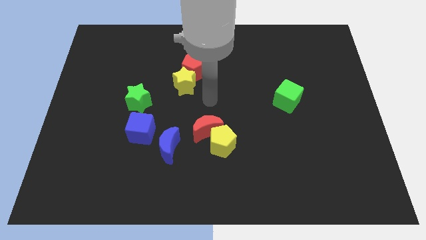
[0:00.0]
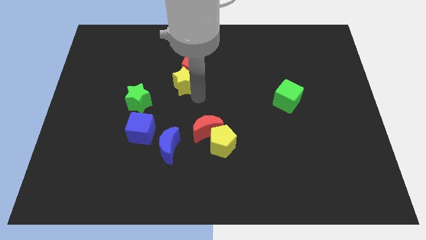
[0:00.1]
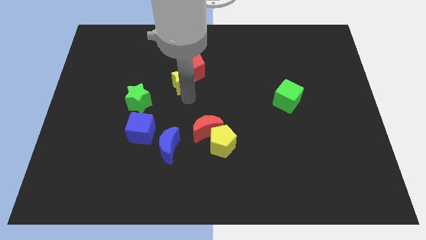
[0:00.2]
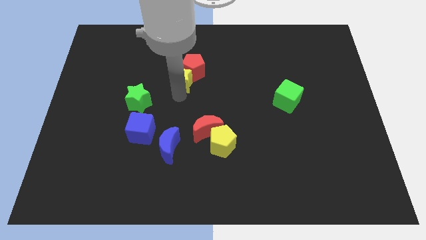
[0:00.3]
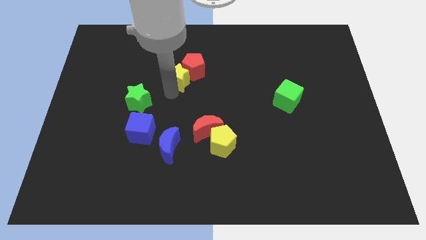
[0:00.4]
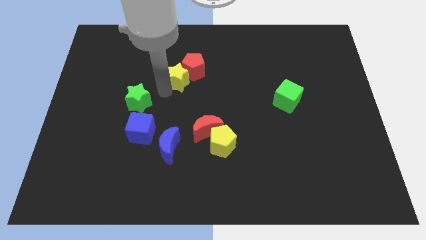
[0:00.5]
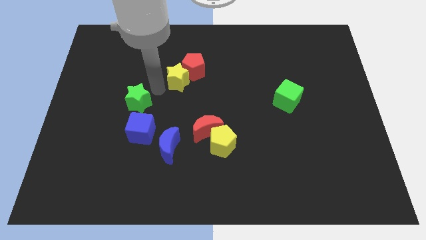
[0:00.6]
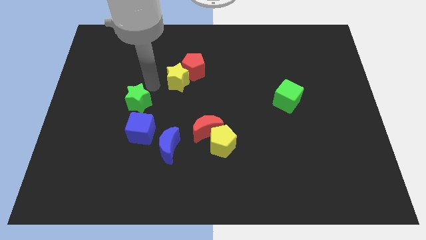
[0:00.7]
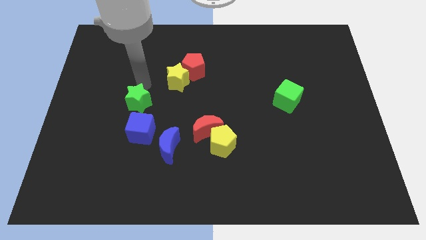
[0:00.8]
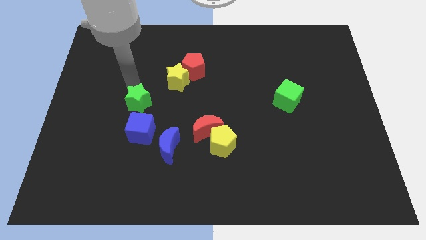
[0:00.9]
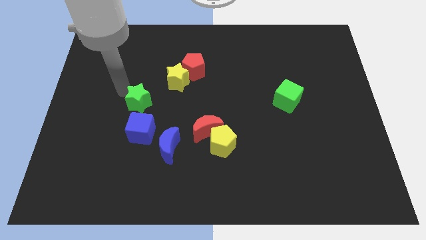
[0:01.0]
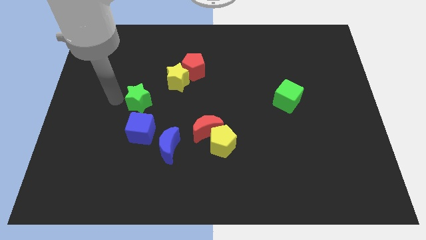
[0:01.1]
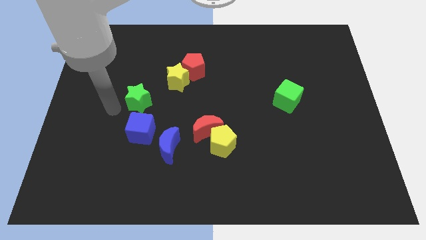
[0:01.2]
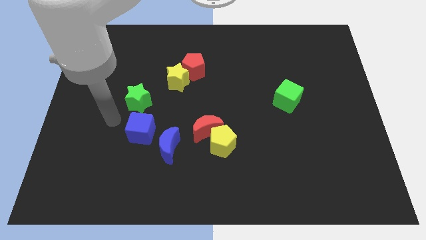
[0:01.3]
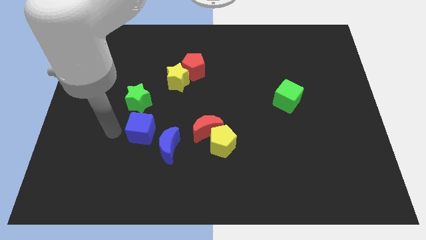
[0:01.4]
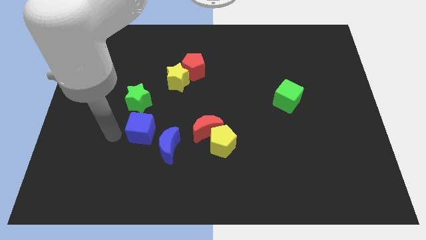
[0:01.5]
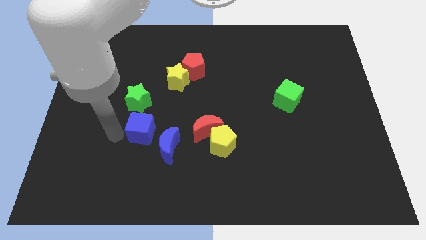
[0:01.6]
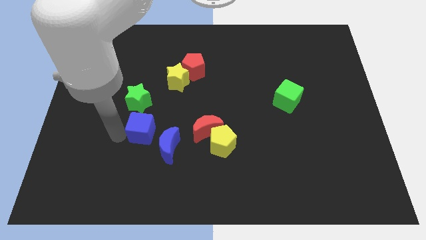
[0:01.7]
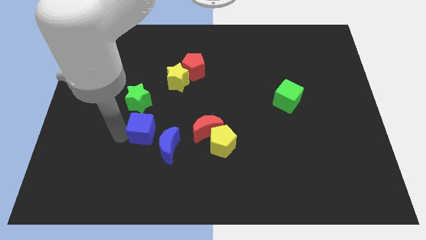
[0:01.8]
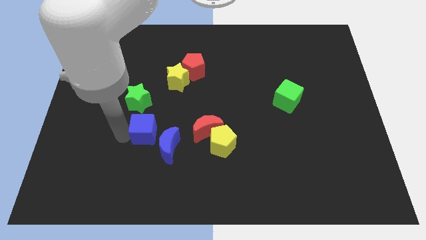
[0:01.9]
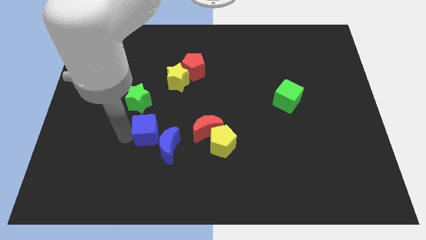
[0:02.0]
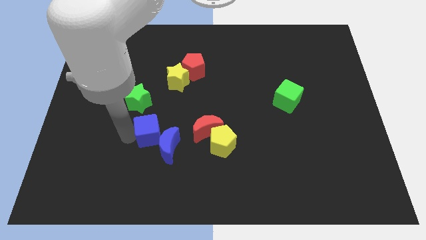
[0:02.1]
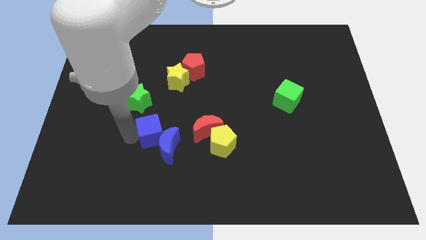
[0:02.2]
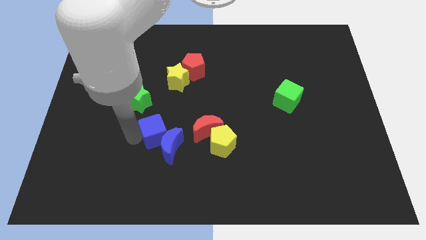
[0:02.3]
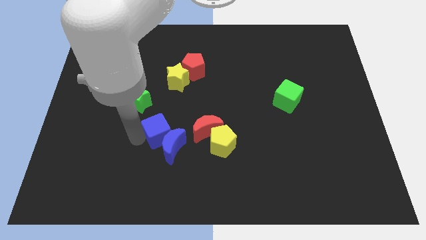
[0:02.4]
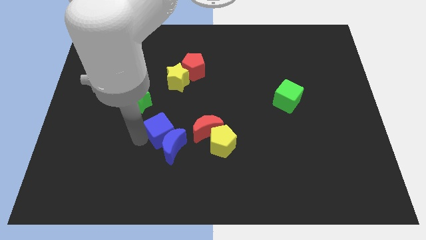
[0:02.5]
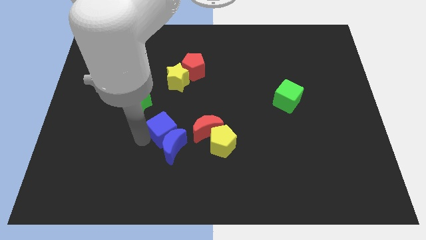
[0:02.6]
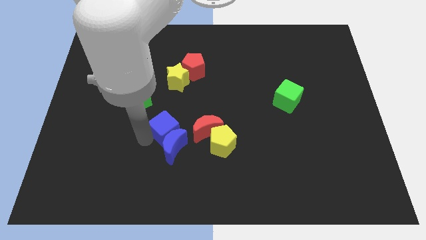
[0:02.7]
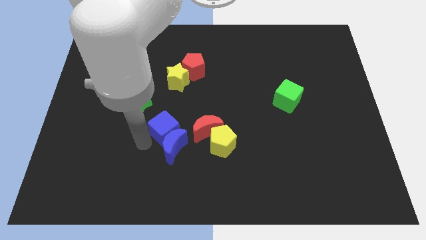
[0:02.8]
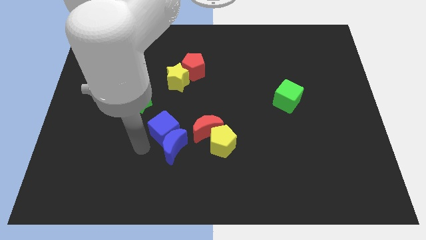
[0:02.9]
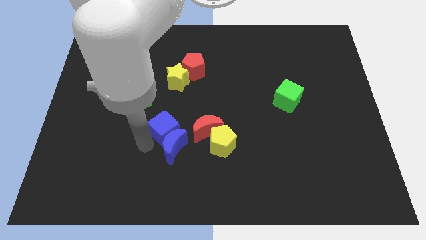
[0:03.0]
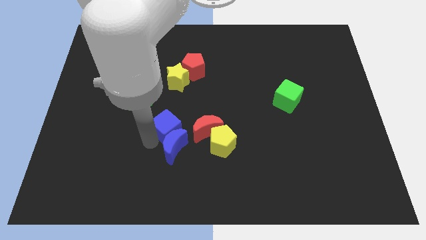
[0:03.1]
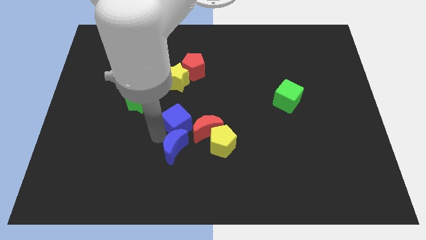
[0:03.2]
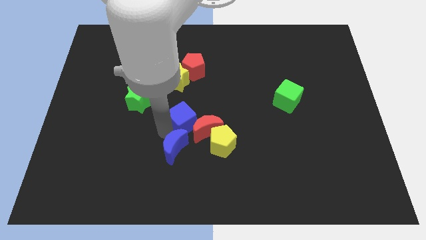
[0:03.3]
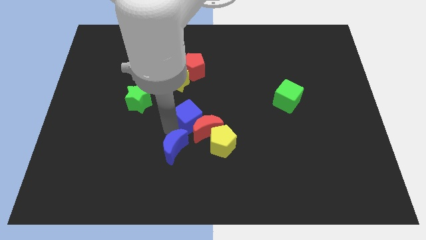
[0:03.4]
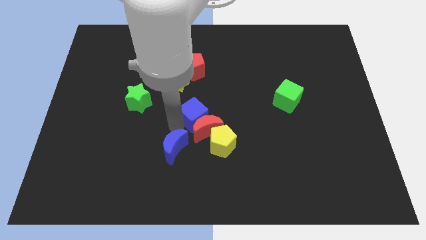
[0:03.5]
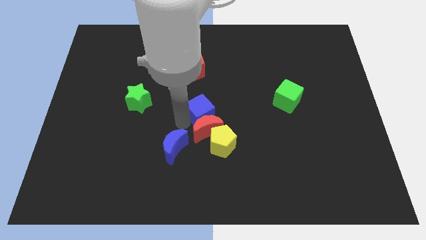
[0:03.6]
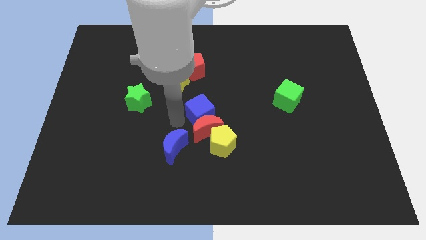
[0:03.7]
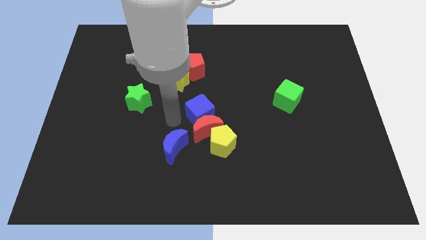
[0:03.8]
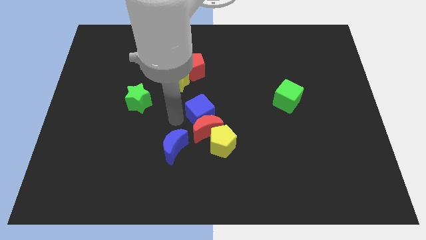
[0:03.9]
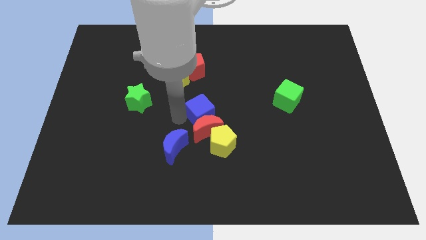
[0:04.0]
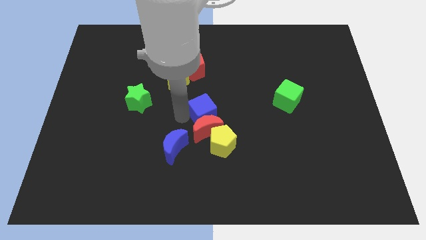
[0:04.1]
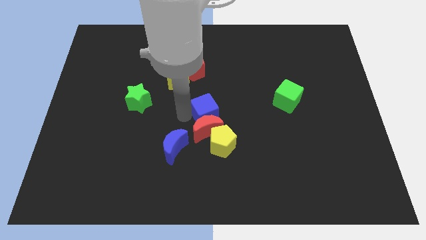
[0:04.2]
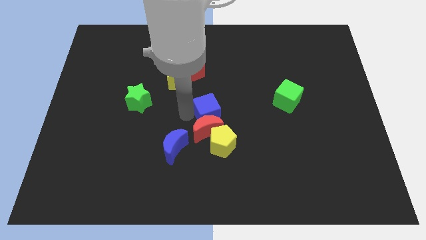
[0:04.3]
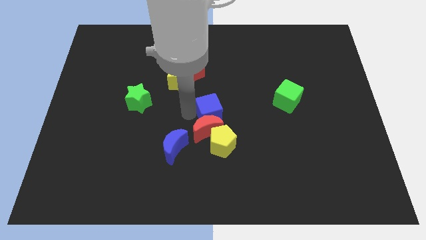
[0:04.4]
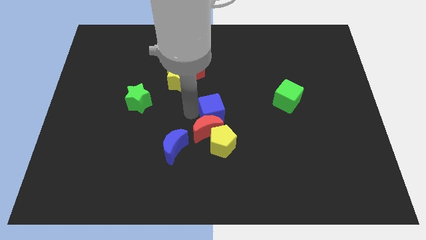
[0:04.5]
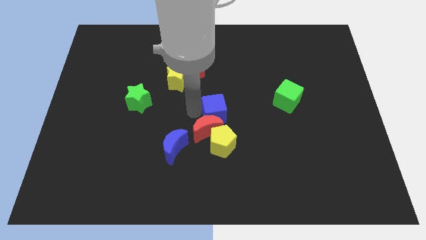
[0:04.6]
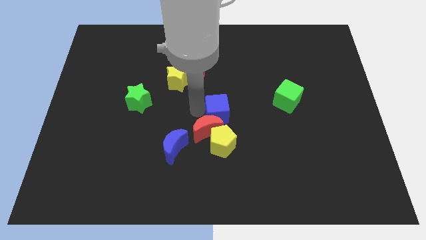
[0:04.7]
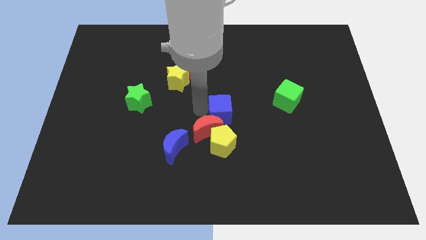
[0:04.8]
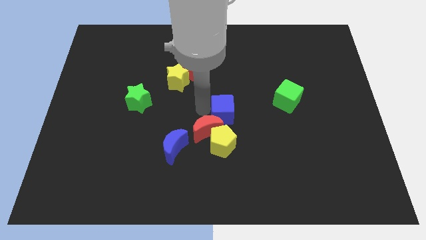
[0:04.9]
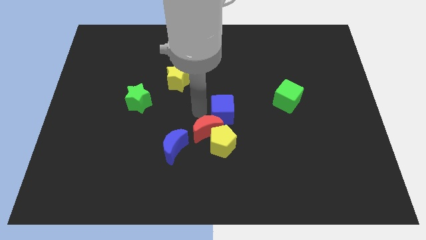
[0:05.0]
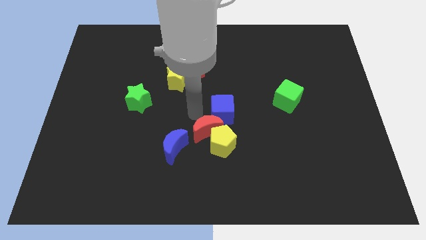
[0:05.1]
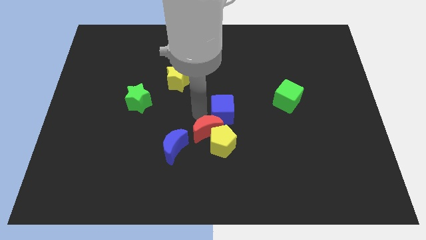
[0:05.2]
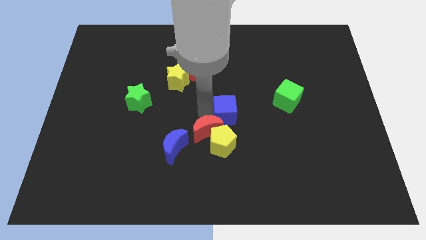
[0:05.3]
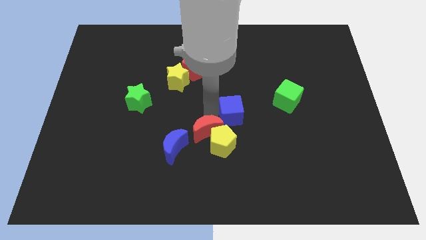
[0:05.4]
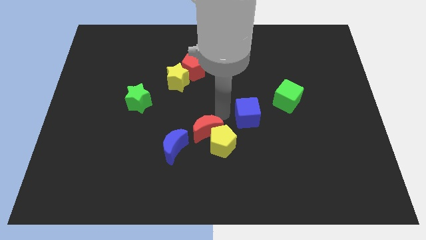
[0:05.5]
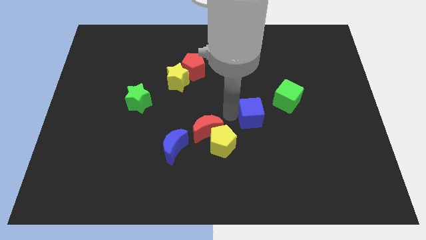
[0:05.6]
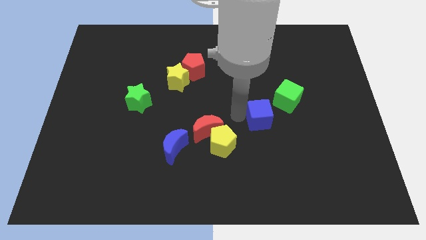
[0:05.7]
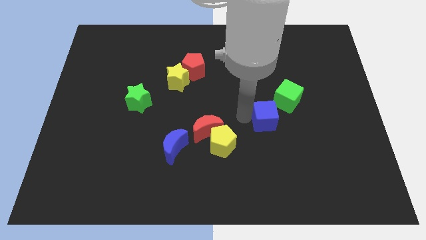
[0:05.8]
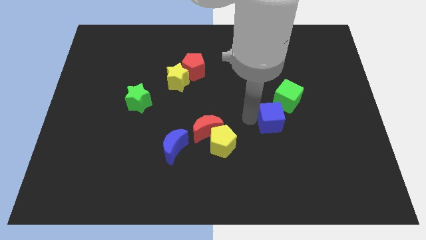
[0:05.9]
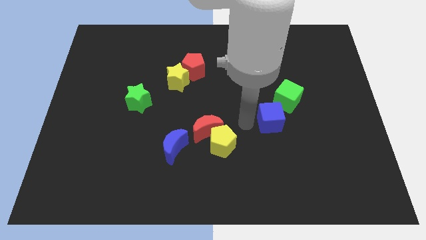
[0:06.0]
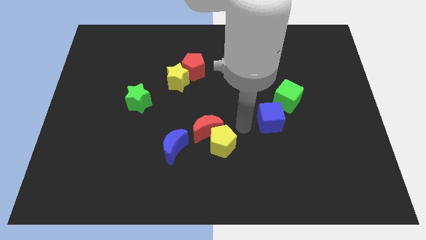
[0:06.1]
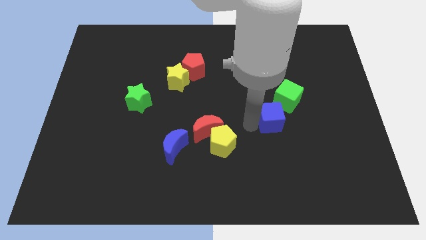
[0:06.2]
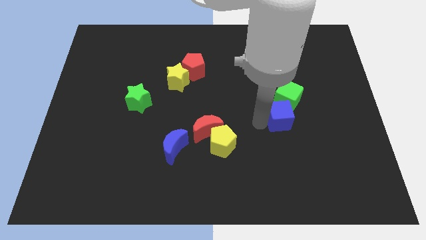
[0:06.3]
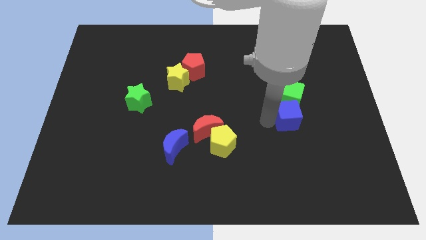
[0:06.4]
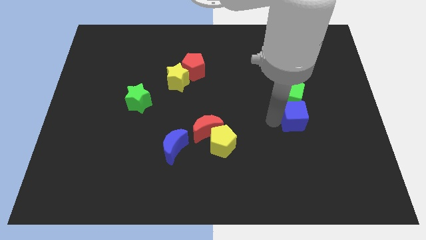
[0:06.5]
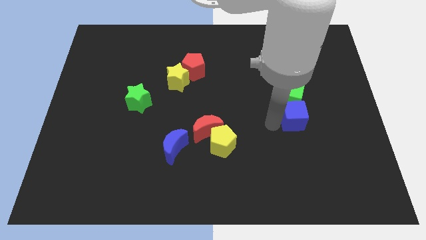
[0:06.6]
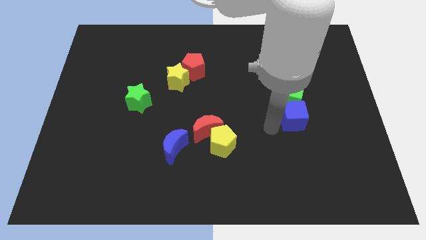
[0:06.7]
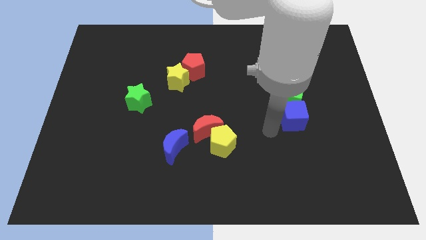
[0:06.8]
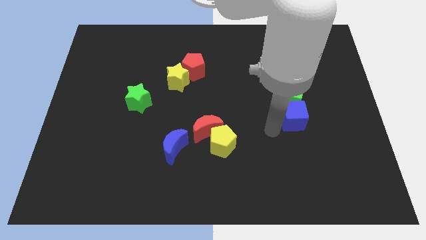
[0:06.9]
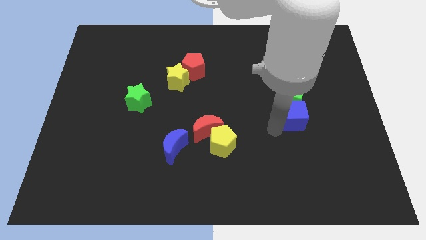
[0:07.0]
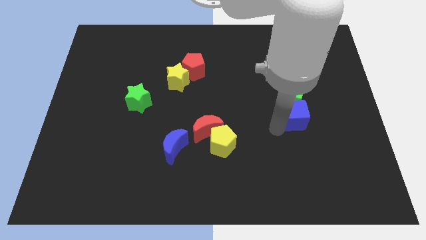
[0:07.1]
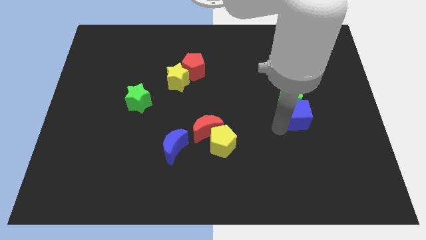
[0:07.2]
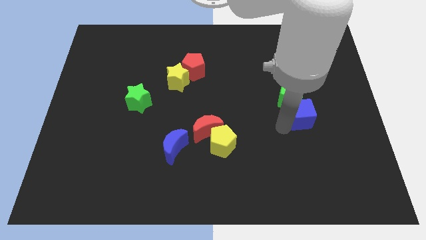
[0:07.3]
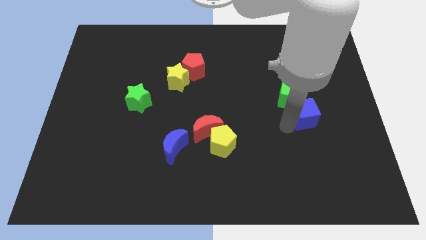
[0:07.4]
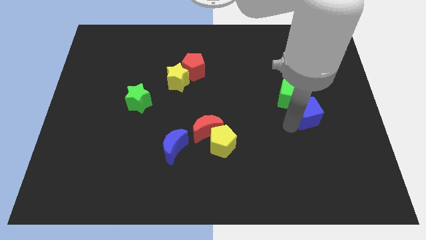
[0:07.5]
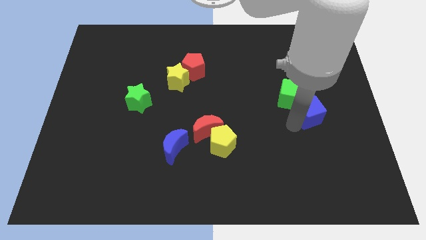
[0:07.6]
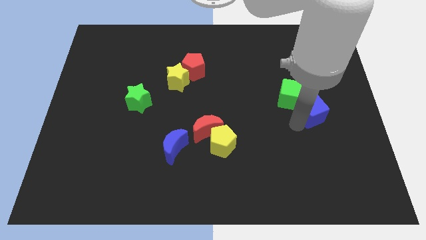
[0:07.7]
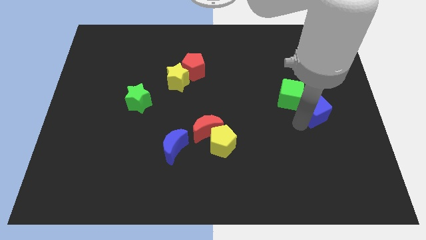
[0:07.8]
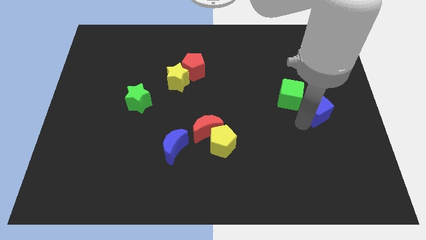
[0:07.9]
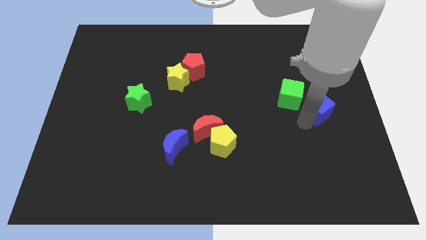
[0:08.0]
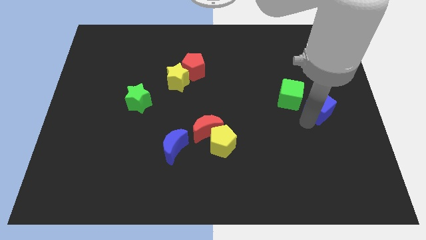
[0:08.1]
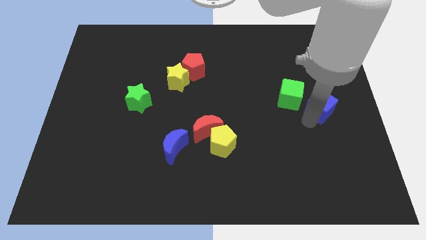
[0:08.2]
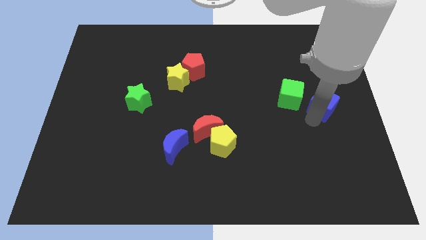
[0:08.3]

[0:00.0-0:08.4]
move the blue cube to the center right
